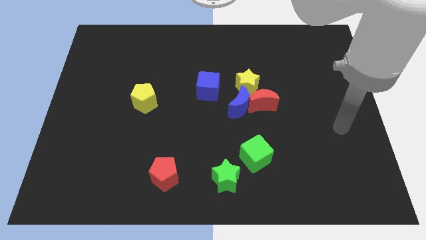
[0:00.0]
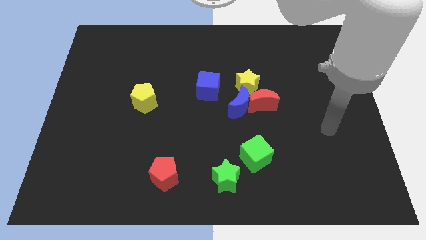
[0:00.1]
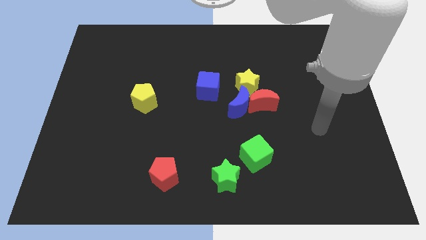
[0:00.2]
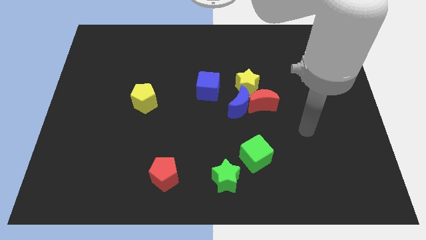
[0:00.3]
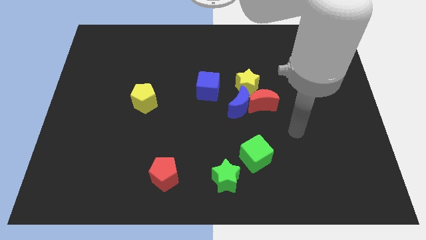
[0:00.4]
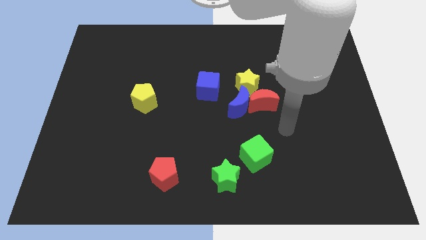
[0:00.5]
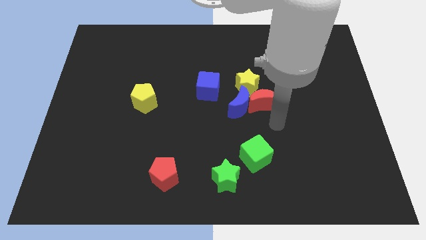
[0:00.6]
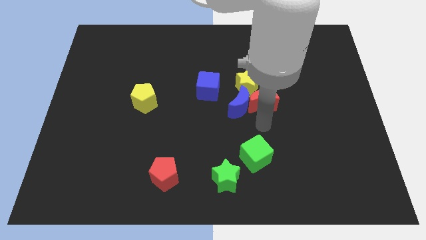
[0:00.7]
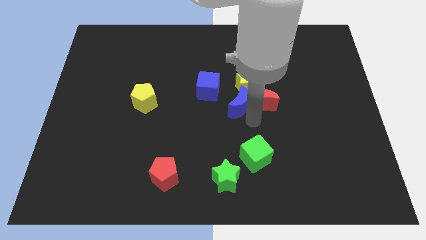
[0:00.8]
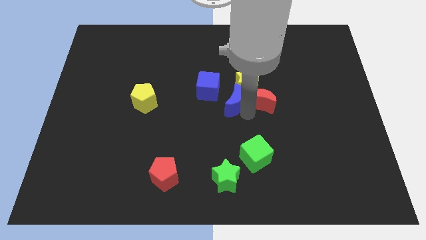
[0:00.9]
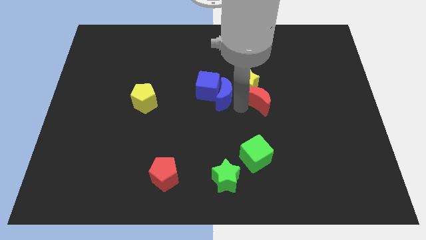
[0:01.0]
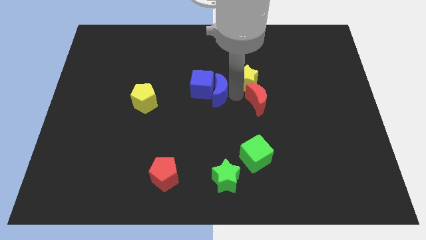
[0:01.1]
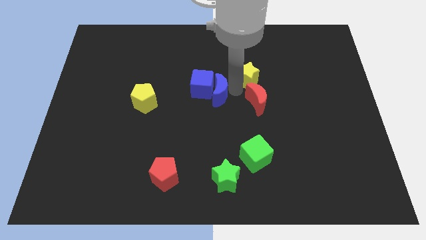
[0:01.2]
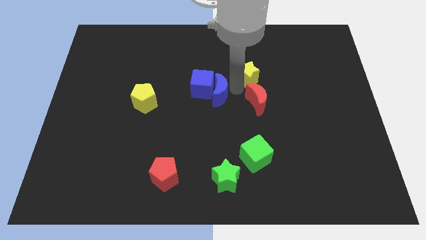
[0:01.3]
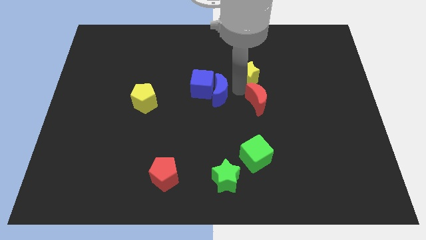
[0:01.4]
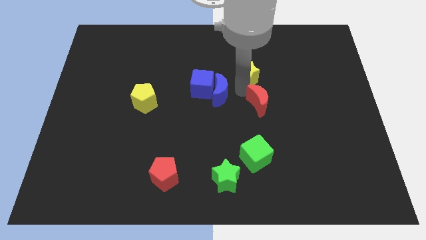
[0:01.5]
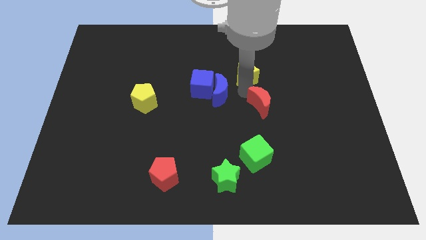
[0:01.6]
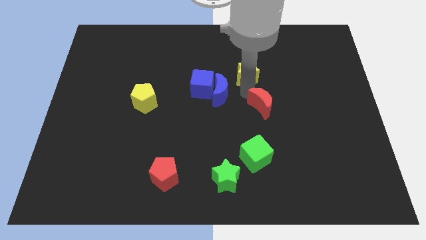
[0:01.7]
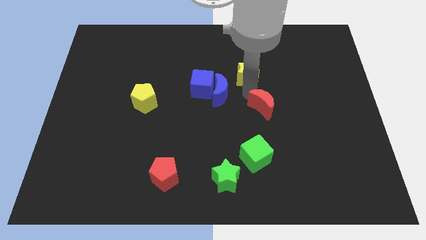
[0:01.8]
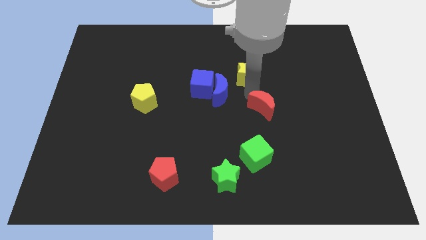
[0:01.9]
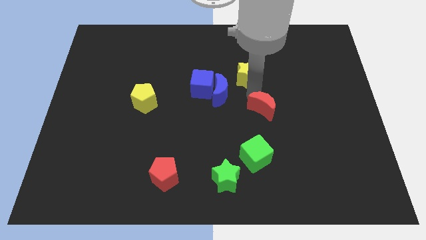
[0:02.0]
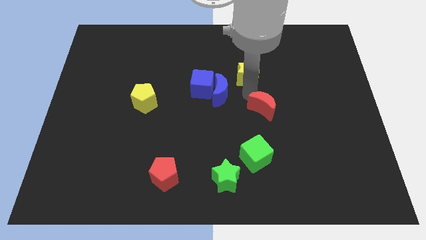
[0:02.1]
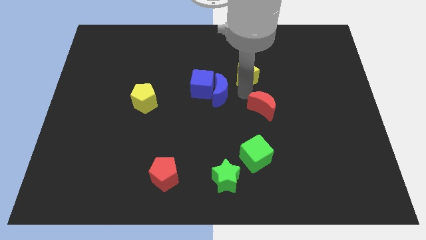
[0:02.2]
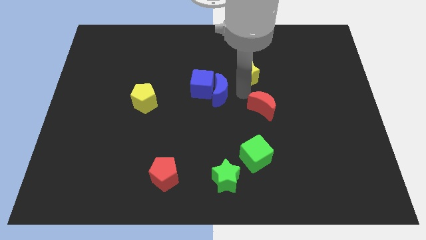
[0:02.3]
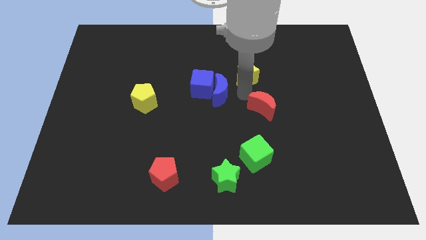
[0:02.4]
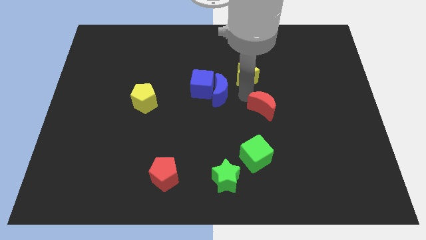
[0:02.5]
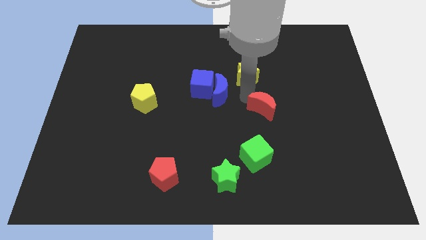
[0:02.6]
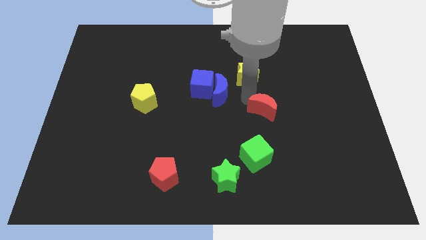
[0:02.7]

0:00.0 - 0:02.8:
separate the red moon from the blue moon and yellow star

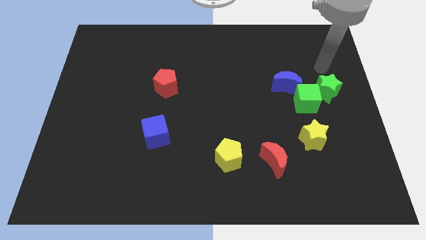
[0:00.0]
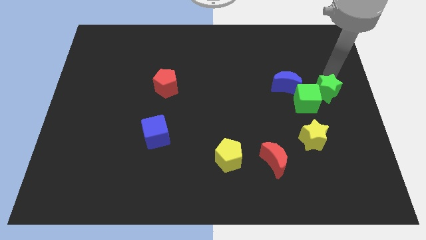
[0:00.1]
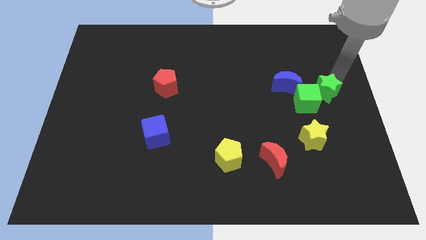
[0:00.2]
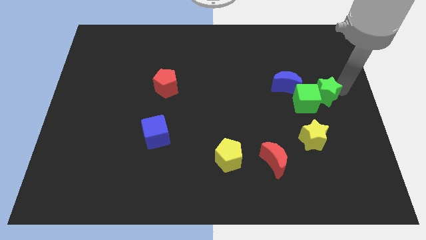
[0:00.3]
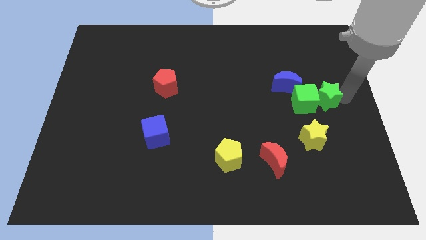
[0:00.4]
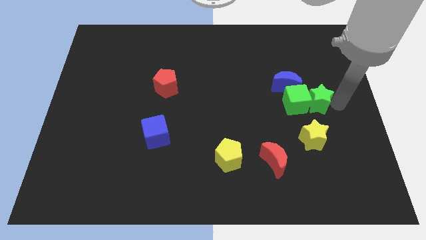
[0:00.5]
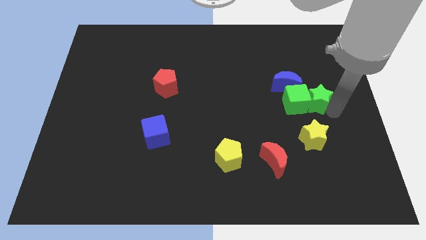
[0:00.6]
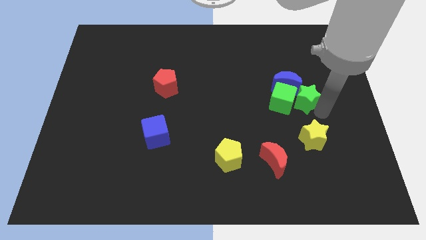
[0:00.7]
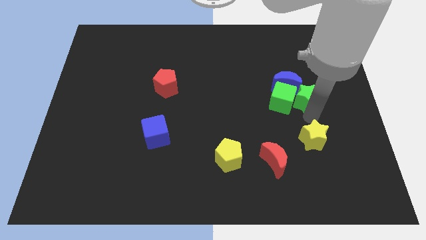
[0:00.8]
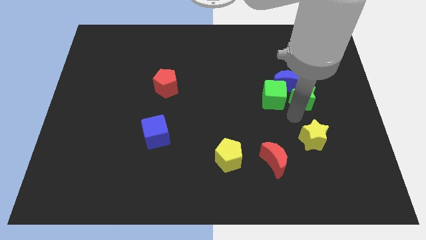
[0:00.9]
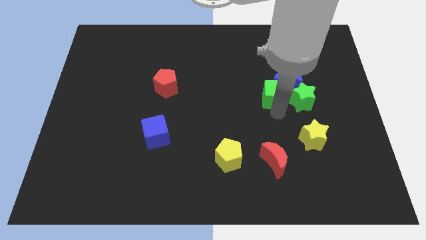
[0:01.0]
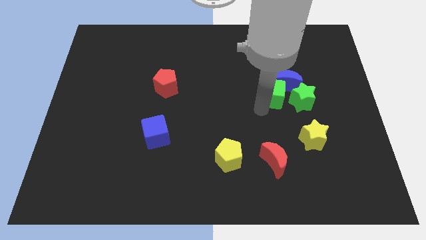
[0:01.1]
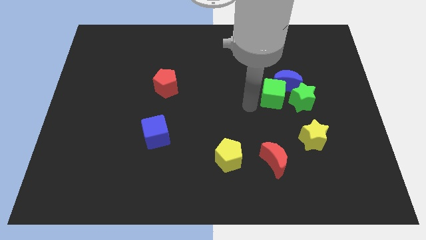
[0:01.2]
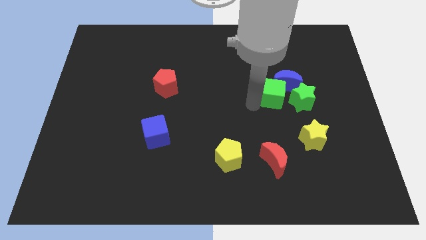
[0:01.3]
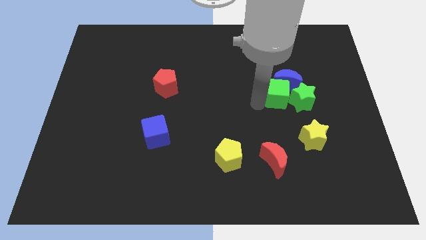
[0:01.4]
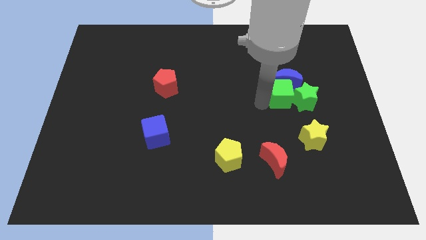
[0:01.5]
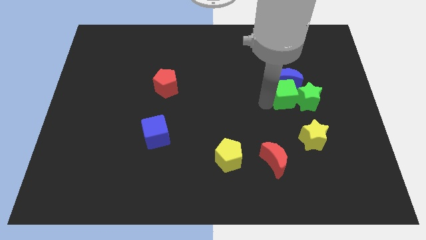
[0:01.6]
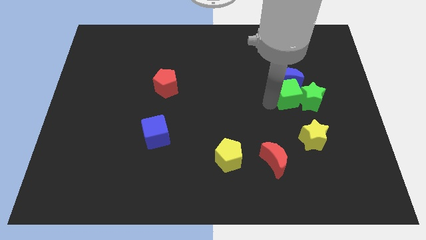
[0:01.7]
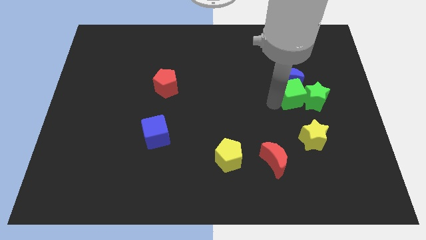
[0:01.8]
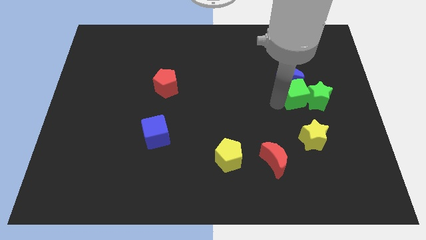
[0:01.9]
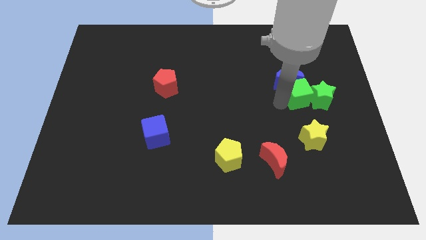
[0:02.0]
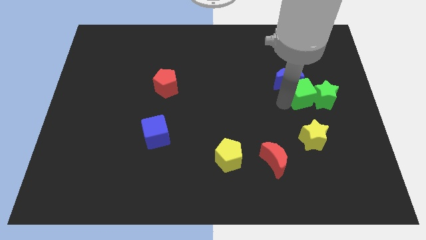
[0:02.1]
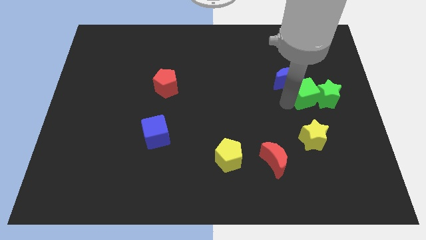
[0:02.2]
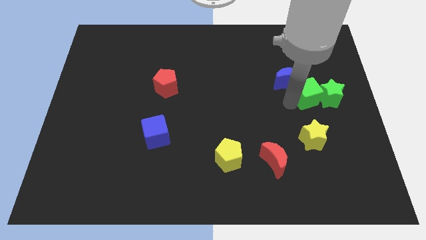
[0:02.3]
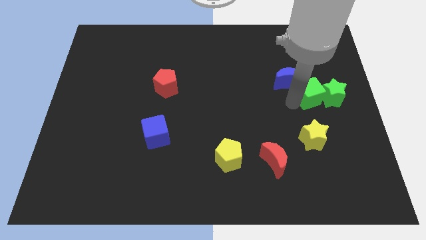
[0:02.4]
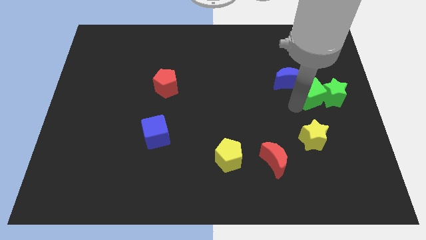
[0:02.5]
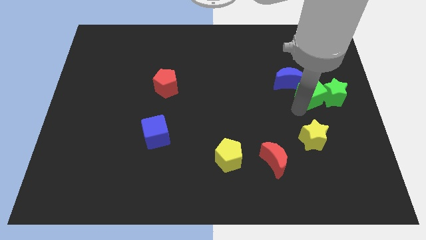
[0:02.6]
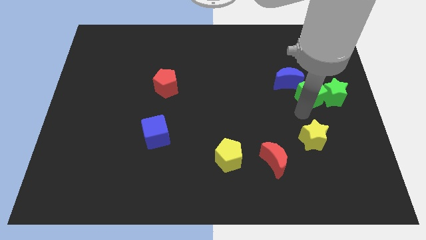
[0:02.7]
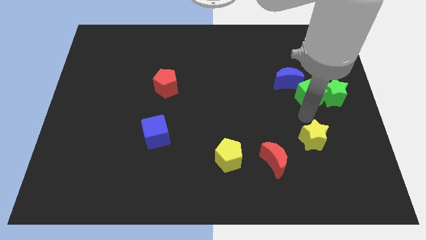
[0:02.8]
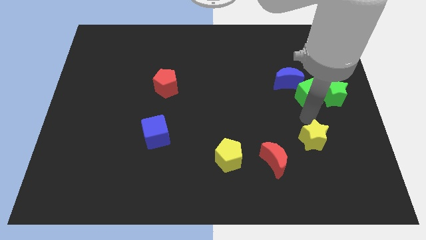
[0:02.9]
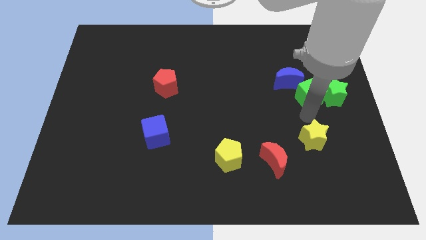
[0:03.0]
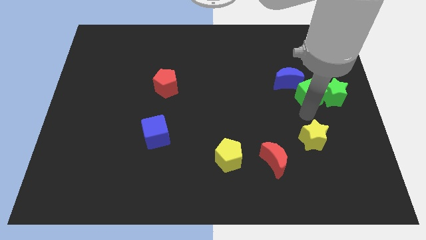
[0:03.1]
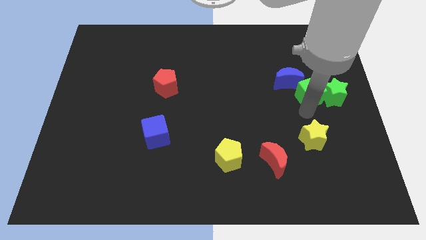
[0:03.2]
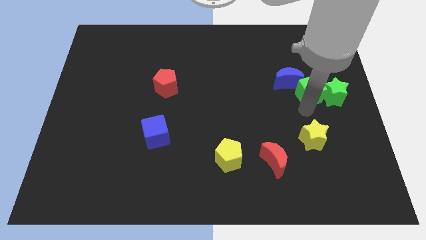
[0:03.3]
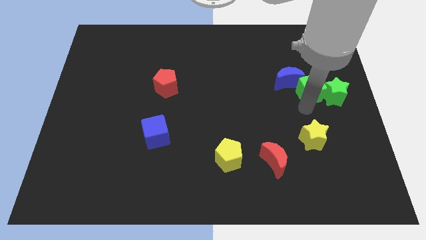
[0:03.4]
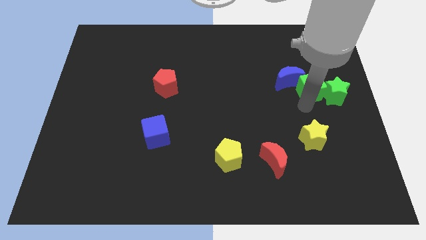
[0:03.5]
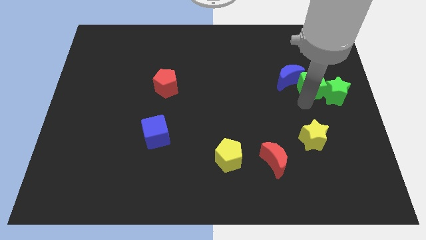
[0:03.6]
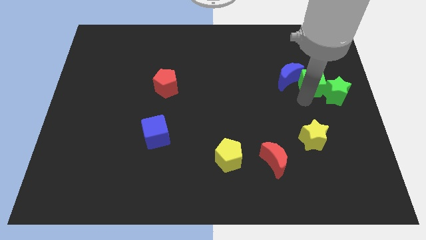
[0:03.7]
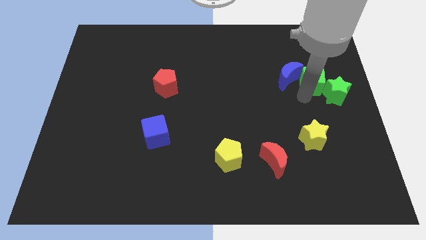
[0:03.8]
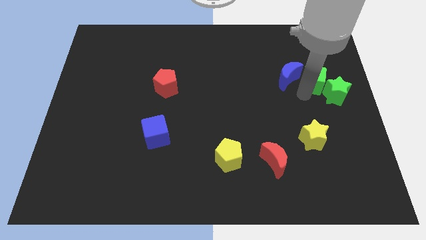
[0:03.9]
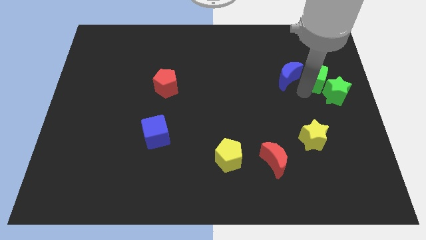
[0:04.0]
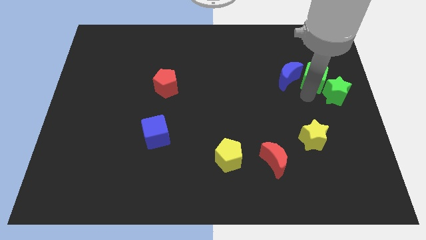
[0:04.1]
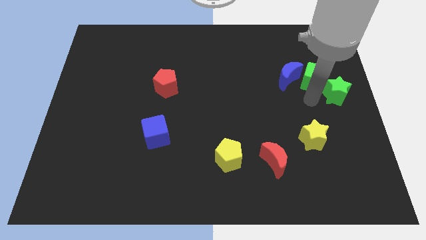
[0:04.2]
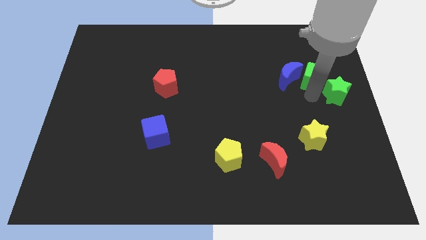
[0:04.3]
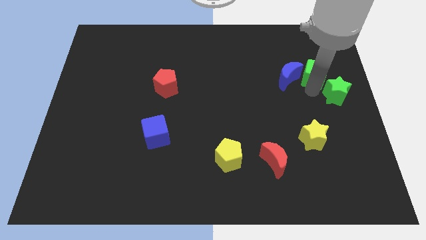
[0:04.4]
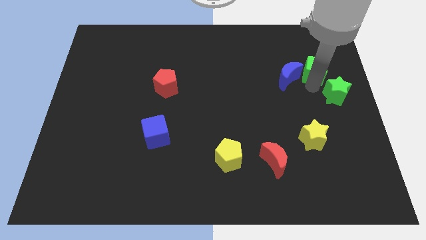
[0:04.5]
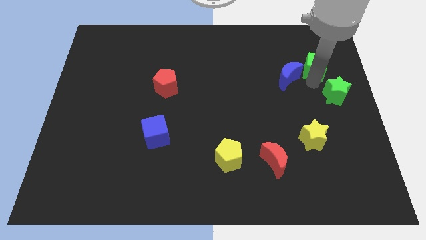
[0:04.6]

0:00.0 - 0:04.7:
separate the green cube from the green star, blue moon, and yellow star

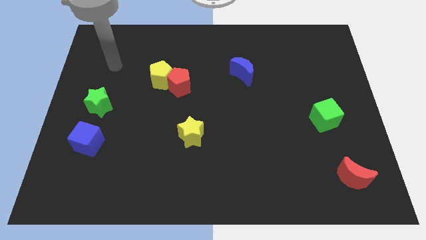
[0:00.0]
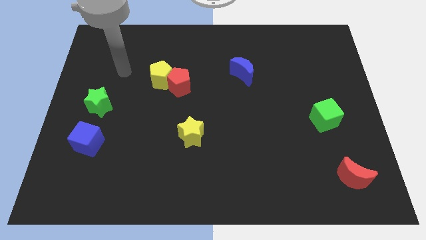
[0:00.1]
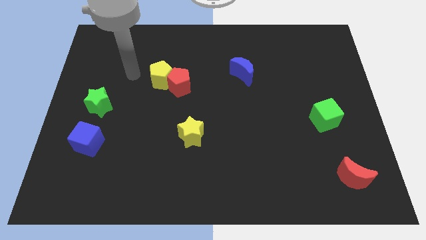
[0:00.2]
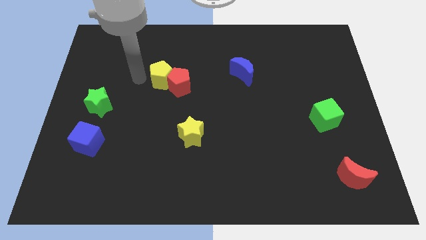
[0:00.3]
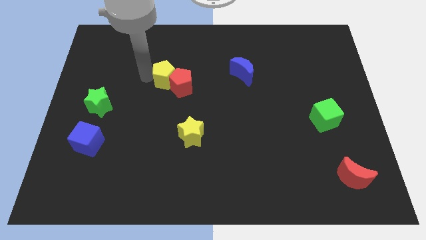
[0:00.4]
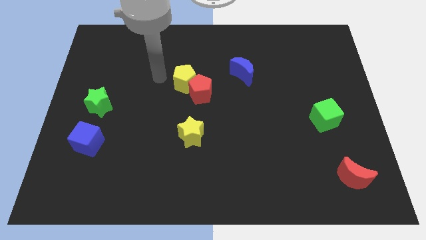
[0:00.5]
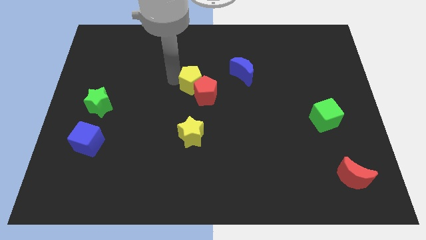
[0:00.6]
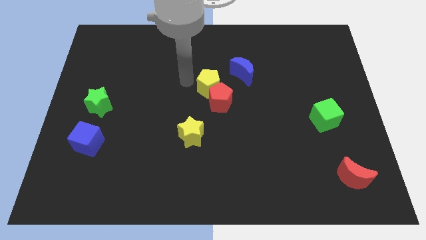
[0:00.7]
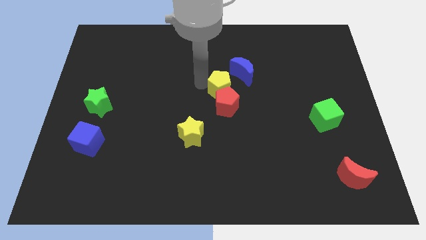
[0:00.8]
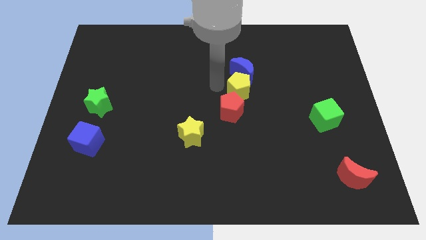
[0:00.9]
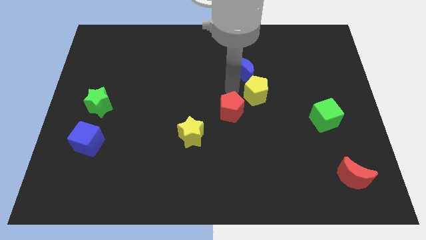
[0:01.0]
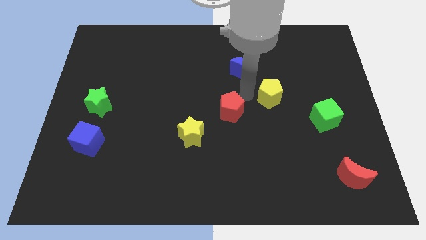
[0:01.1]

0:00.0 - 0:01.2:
separate the red pentagon from the yellow pentagon

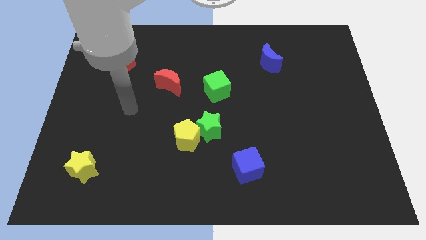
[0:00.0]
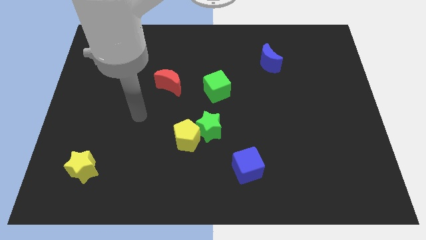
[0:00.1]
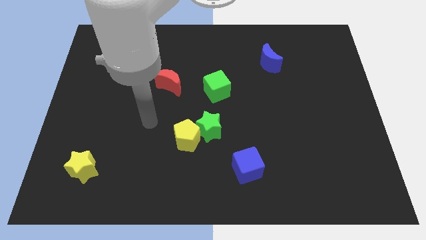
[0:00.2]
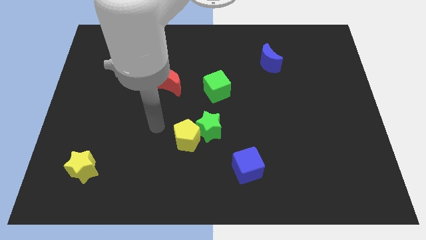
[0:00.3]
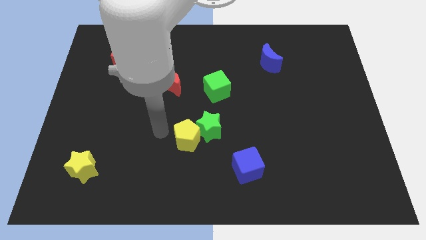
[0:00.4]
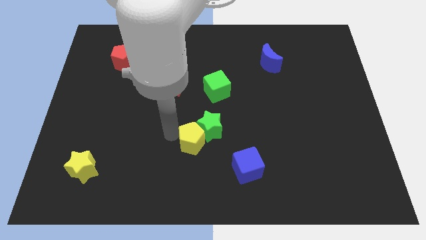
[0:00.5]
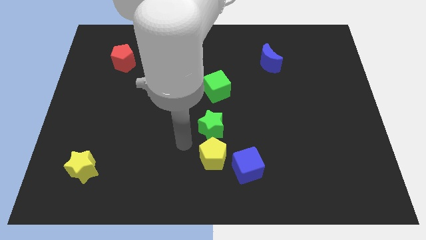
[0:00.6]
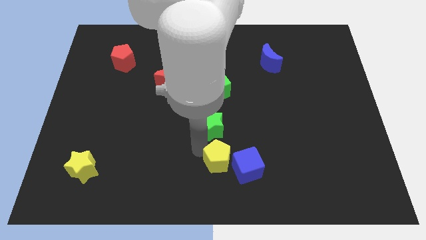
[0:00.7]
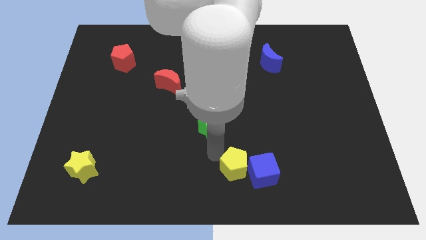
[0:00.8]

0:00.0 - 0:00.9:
move the green star away from the yellow pentagon
